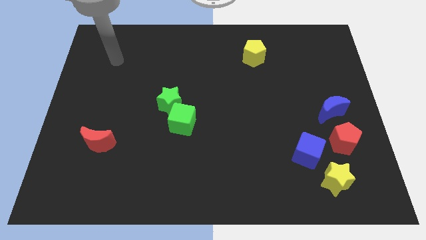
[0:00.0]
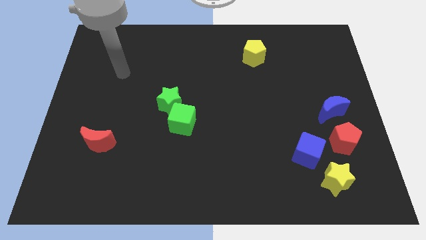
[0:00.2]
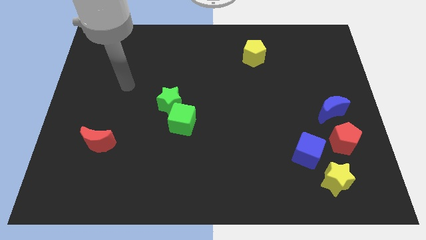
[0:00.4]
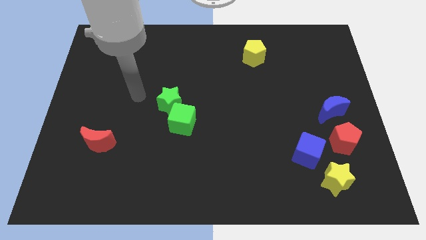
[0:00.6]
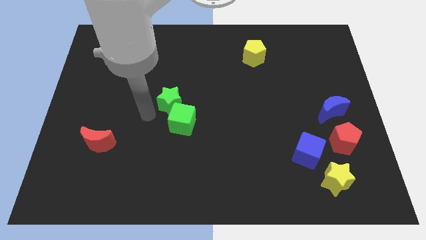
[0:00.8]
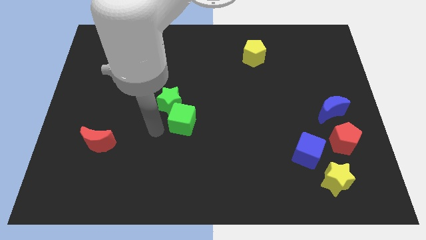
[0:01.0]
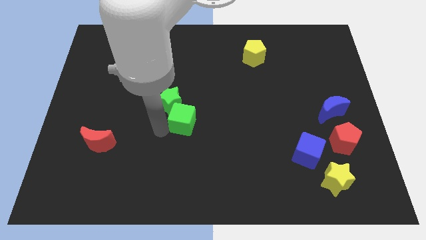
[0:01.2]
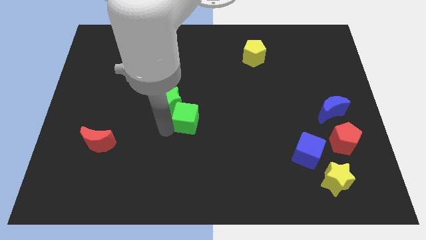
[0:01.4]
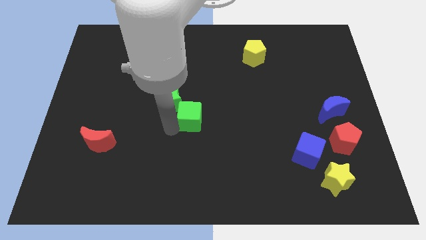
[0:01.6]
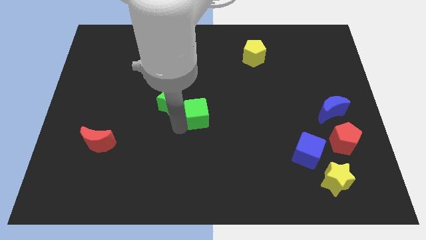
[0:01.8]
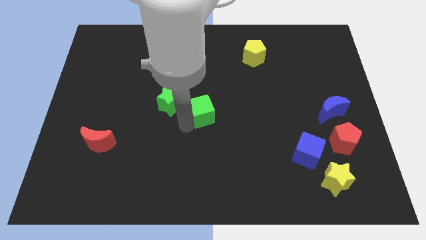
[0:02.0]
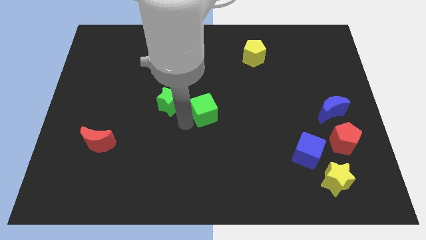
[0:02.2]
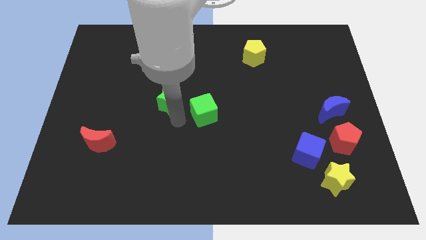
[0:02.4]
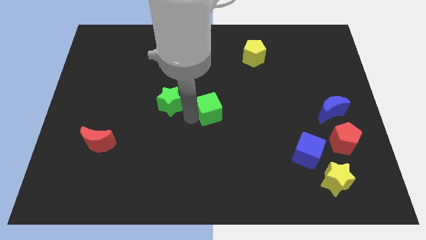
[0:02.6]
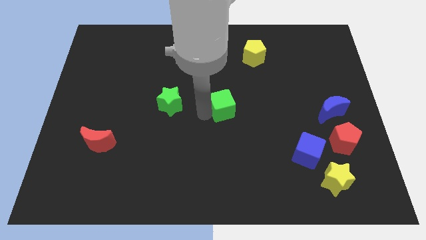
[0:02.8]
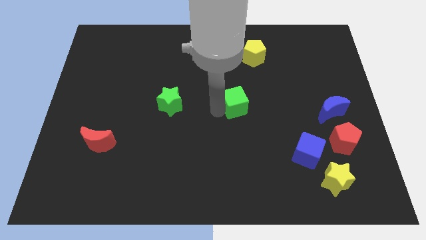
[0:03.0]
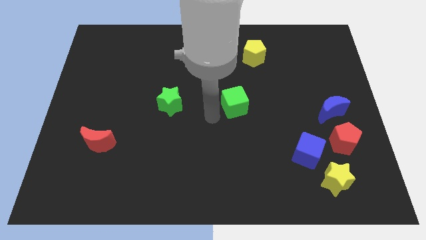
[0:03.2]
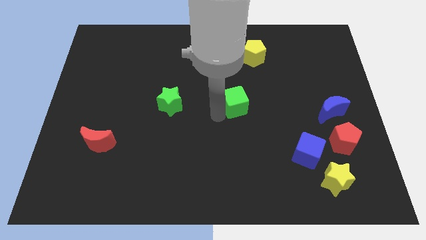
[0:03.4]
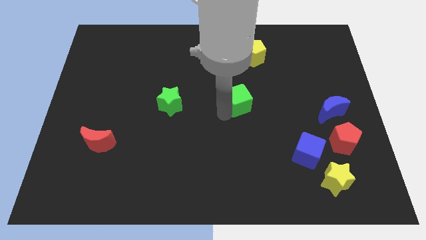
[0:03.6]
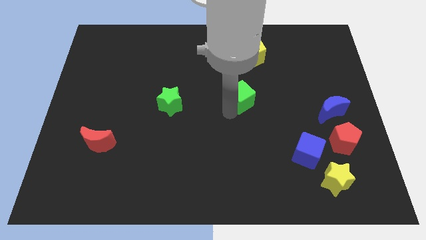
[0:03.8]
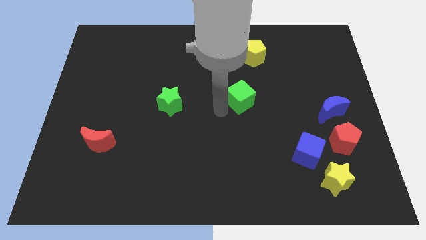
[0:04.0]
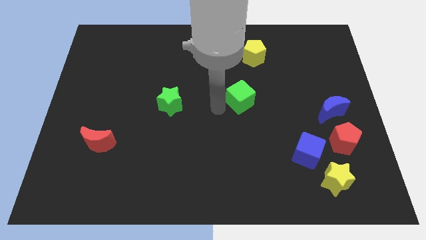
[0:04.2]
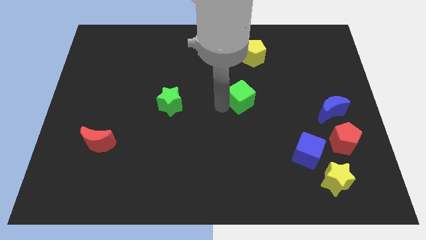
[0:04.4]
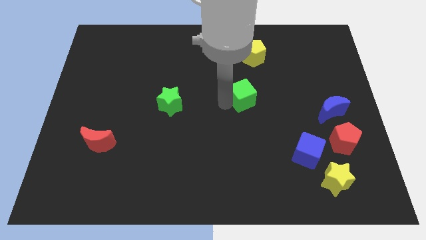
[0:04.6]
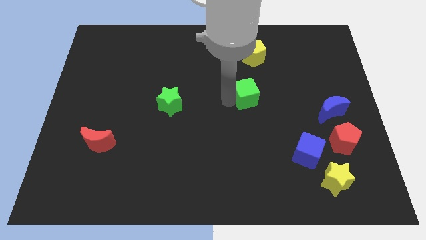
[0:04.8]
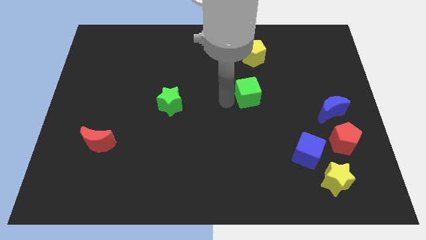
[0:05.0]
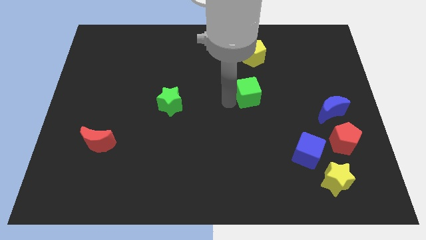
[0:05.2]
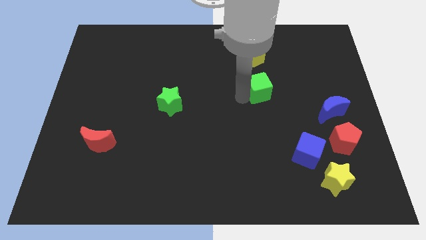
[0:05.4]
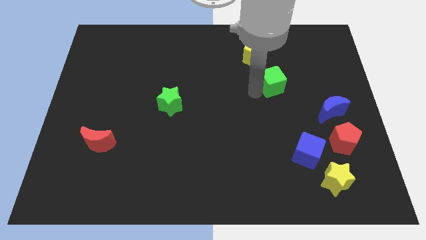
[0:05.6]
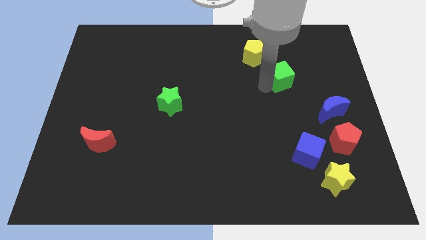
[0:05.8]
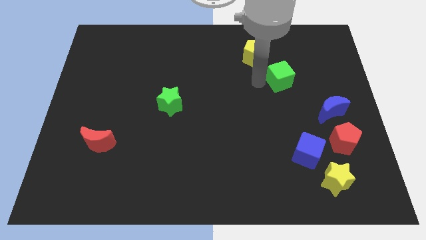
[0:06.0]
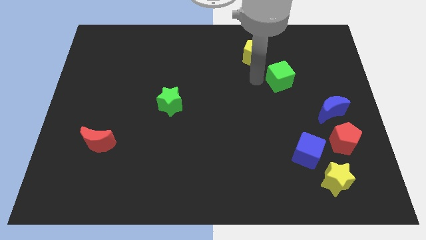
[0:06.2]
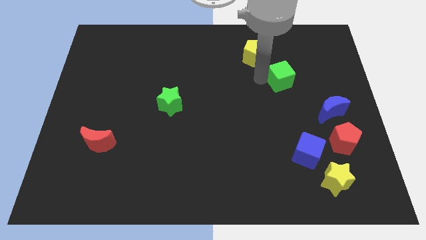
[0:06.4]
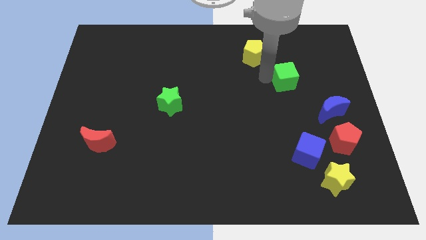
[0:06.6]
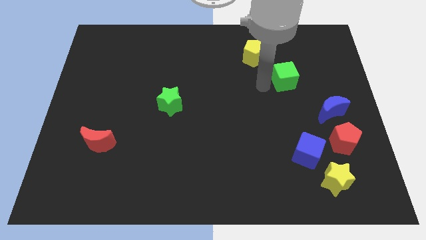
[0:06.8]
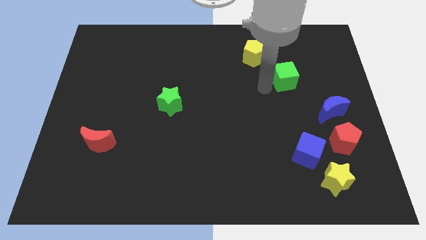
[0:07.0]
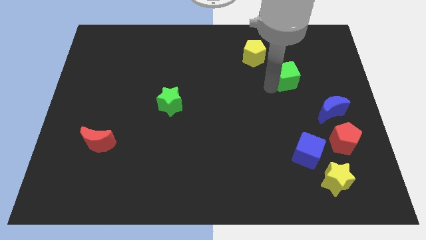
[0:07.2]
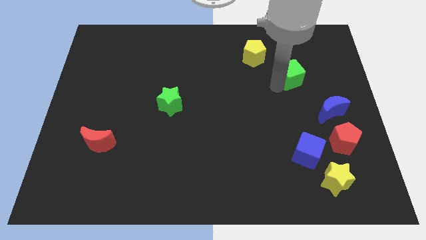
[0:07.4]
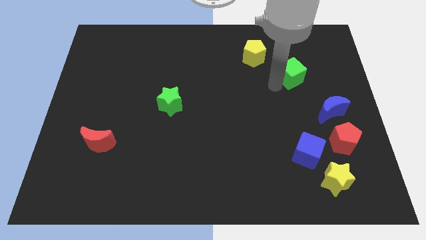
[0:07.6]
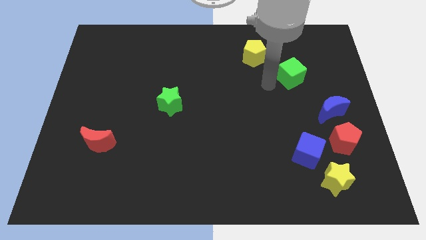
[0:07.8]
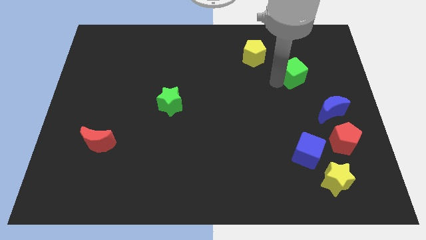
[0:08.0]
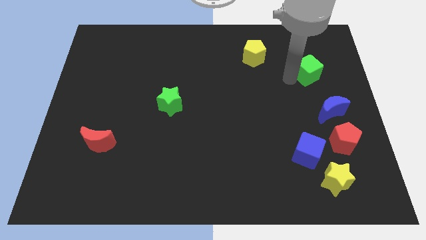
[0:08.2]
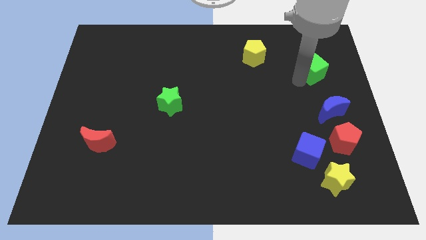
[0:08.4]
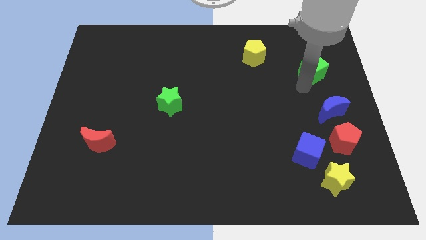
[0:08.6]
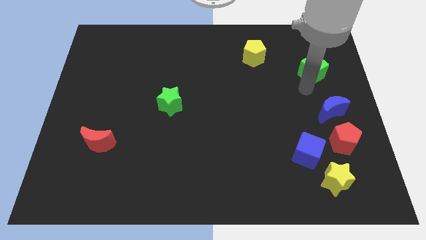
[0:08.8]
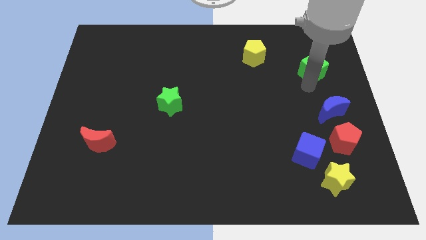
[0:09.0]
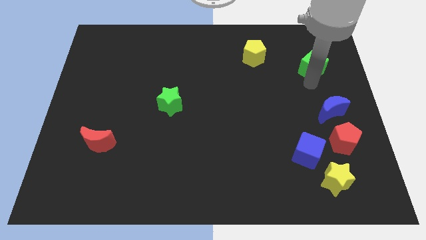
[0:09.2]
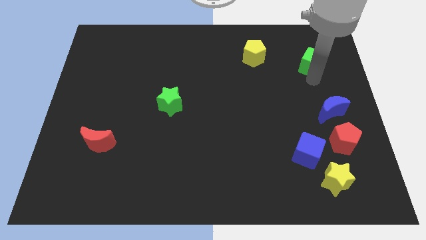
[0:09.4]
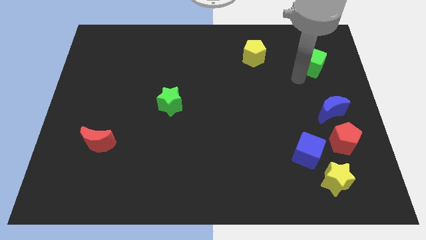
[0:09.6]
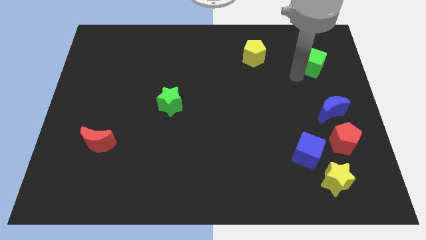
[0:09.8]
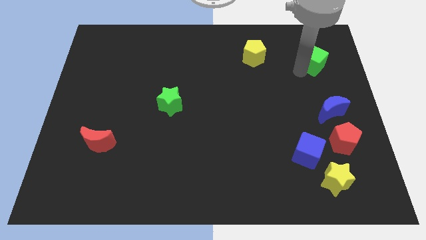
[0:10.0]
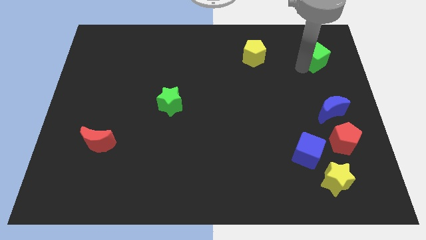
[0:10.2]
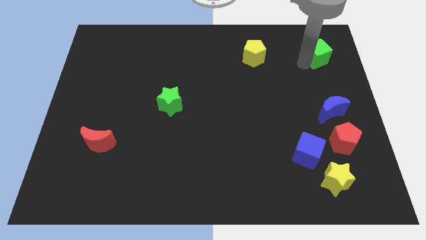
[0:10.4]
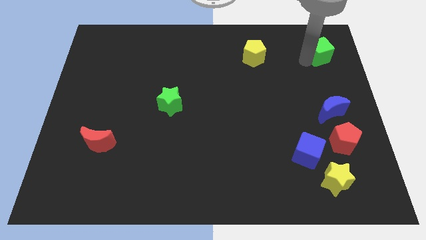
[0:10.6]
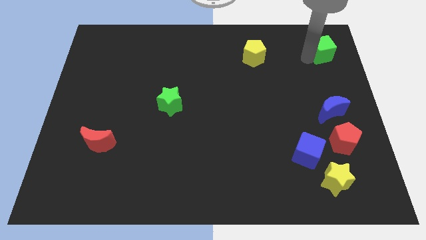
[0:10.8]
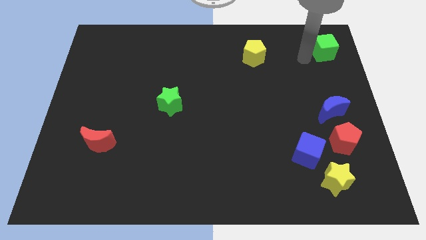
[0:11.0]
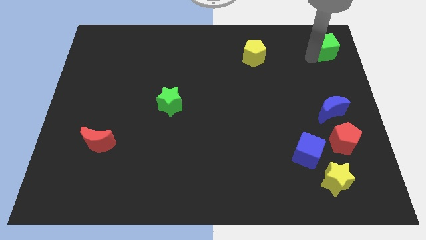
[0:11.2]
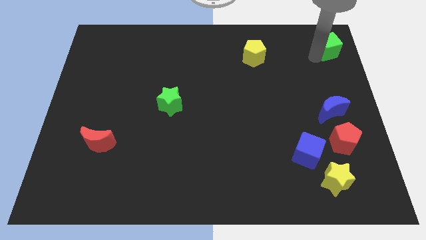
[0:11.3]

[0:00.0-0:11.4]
put the green cube to the top right corner
